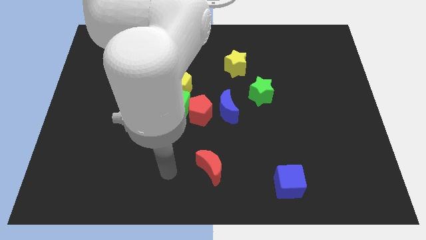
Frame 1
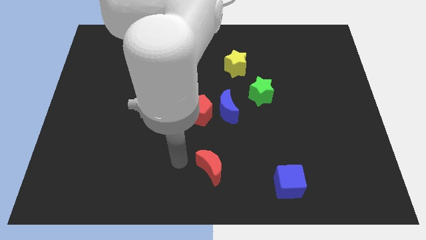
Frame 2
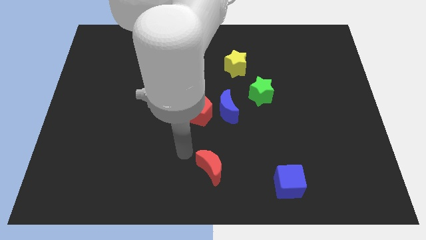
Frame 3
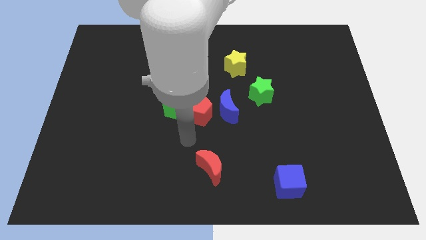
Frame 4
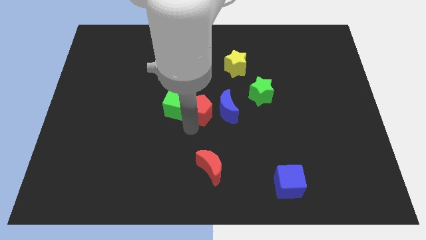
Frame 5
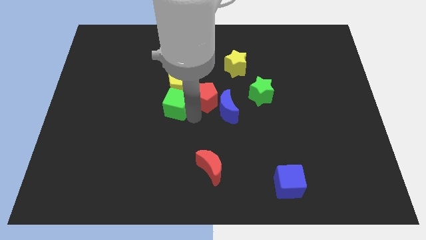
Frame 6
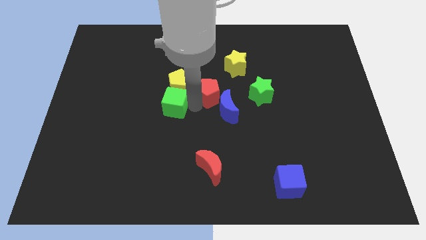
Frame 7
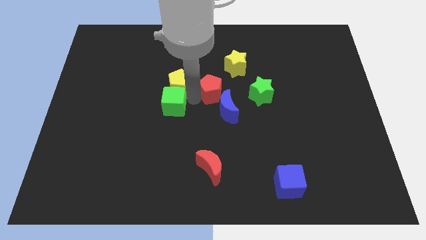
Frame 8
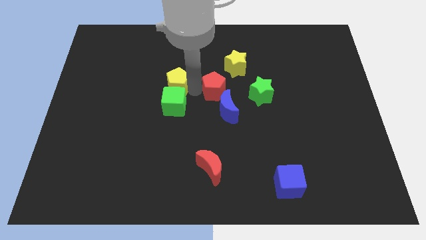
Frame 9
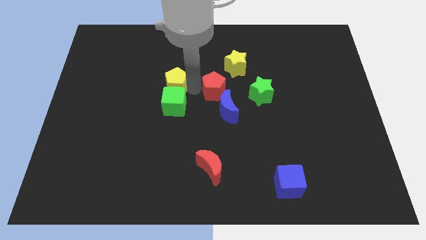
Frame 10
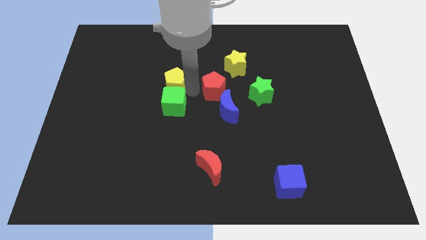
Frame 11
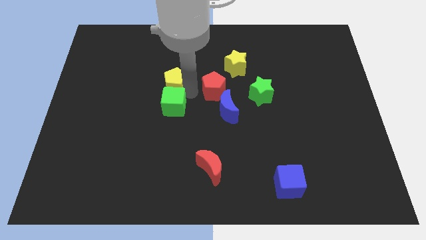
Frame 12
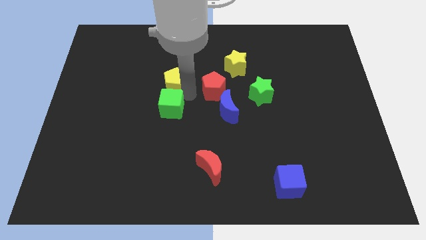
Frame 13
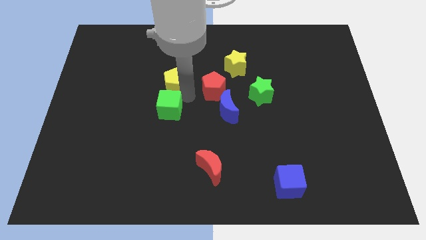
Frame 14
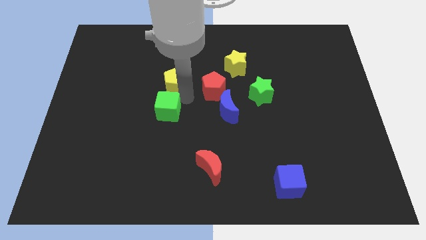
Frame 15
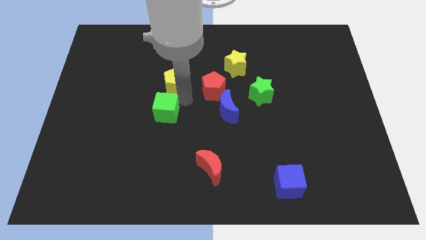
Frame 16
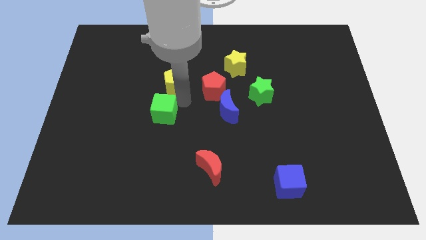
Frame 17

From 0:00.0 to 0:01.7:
move the green cube away from the red pentagon and yellow pentagon

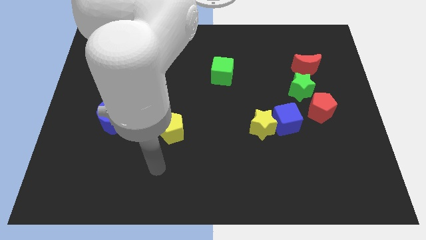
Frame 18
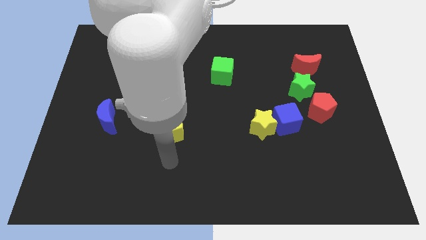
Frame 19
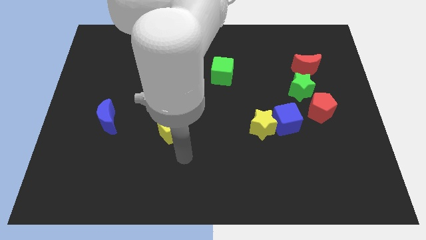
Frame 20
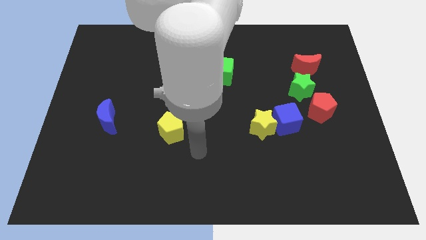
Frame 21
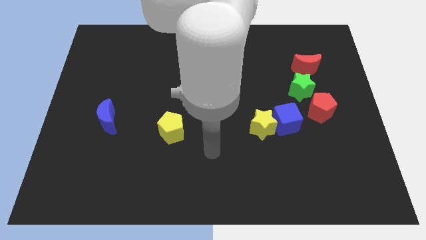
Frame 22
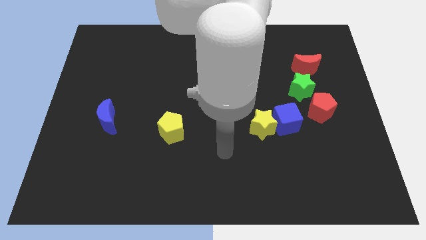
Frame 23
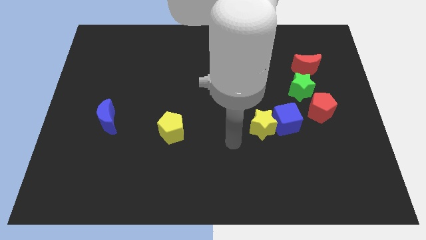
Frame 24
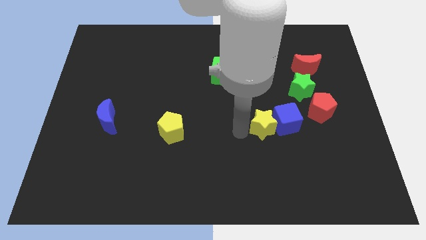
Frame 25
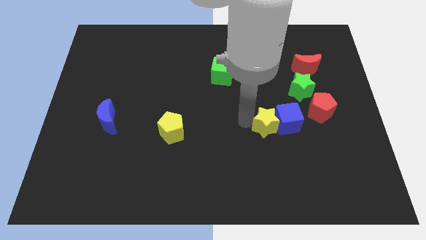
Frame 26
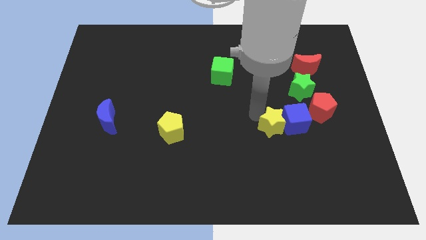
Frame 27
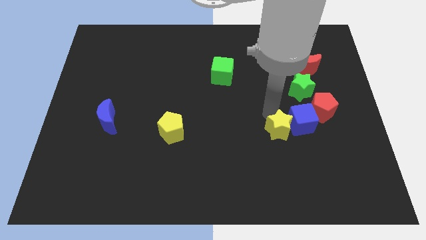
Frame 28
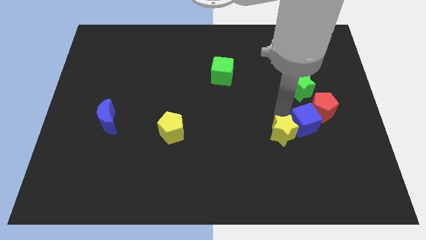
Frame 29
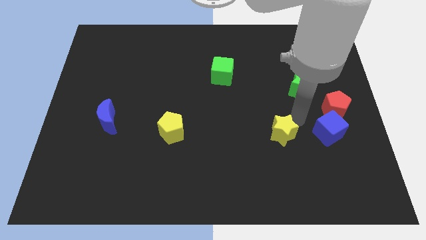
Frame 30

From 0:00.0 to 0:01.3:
move the yellow star away from the blue cube

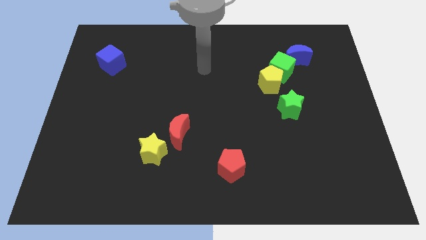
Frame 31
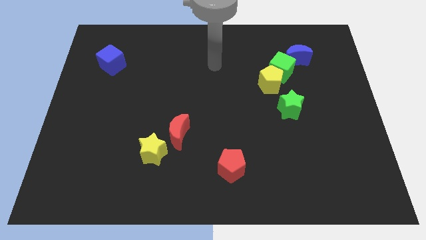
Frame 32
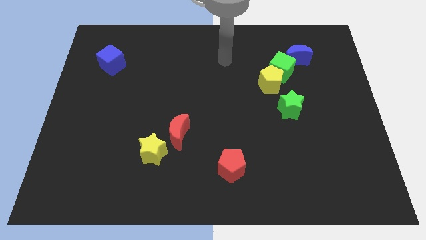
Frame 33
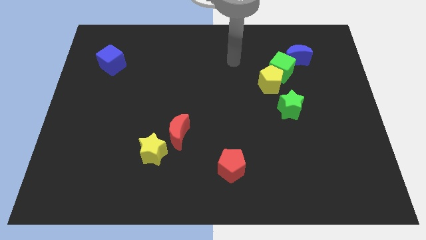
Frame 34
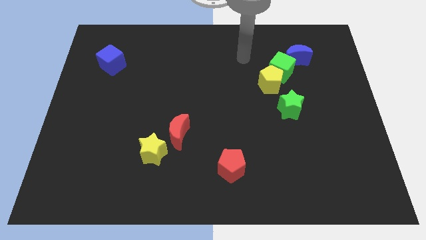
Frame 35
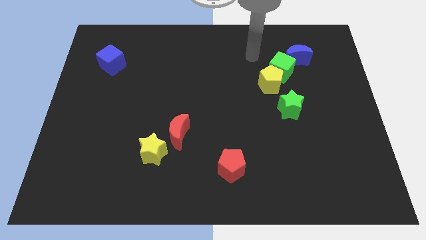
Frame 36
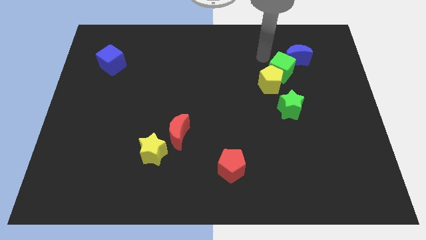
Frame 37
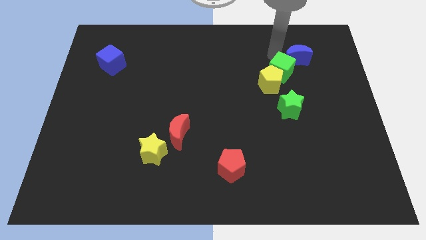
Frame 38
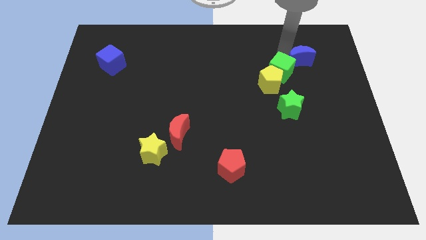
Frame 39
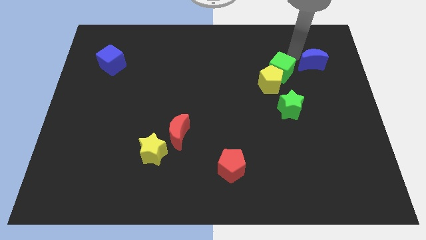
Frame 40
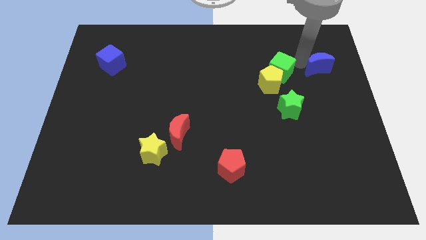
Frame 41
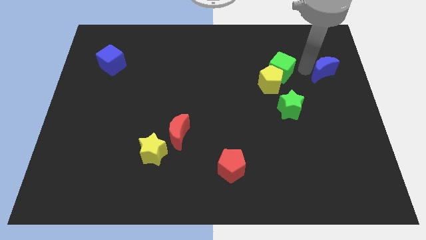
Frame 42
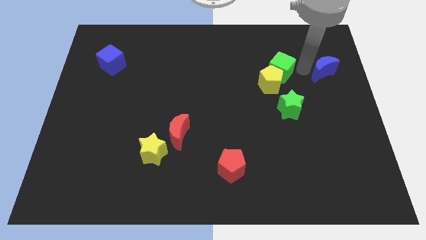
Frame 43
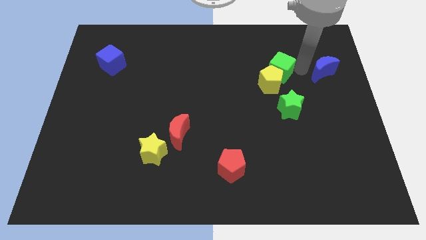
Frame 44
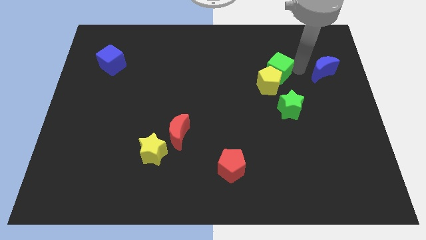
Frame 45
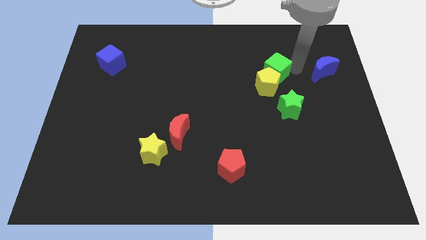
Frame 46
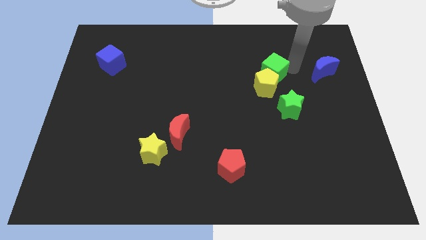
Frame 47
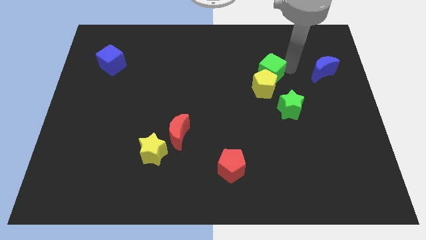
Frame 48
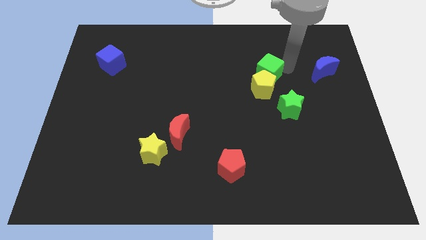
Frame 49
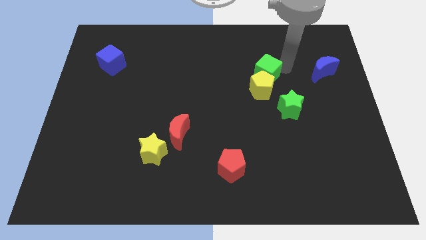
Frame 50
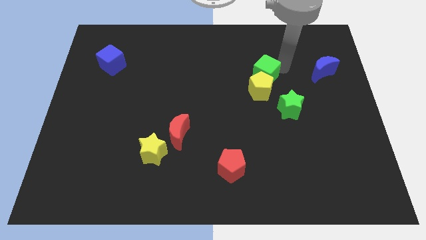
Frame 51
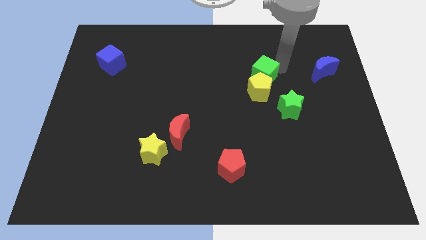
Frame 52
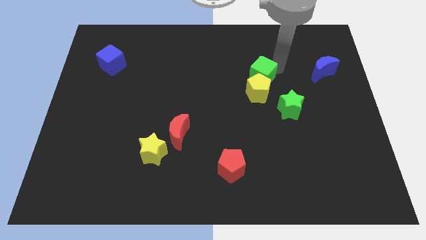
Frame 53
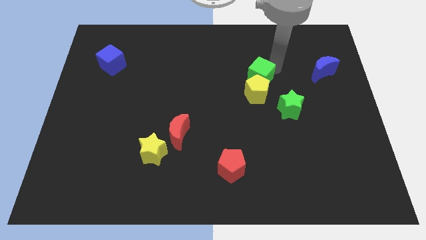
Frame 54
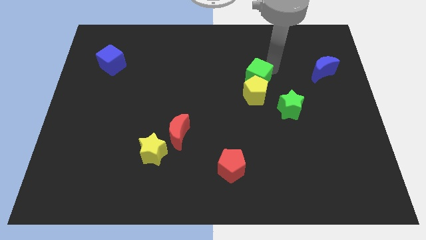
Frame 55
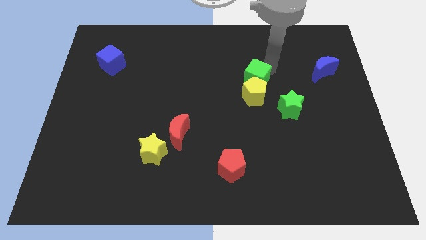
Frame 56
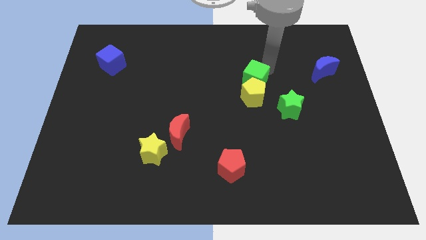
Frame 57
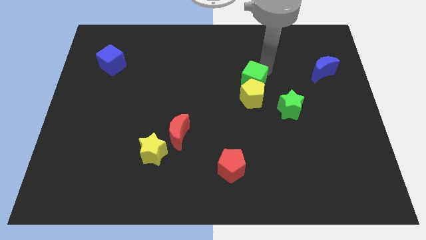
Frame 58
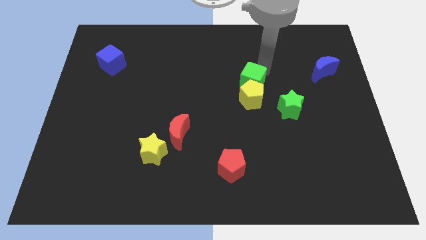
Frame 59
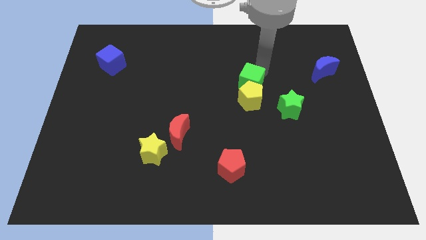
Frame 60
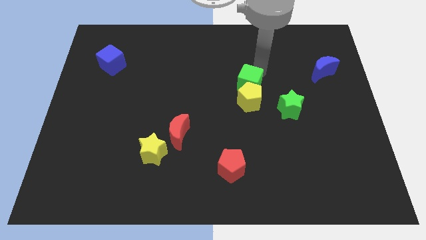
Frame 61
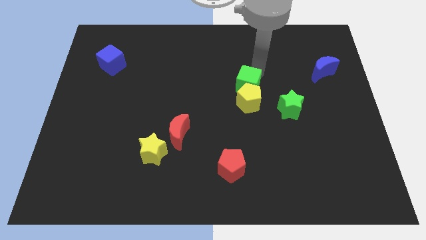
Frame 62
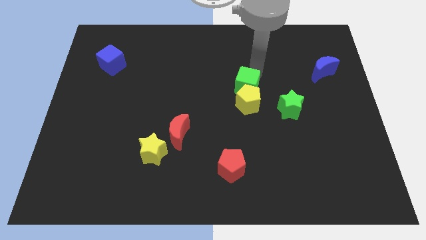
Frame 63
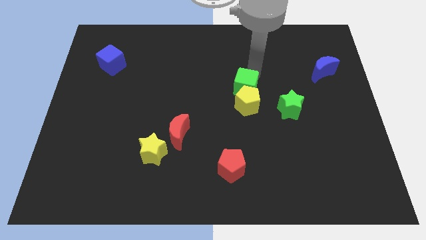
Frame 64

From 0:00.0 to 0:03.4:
pull the green cube apart from the yellow pentagon and blue moon

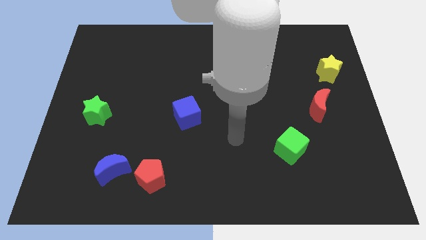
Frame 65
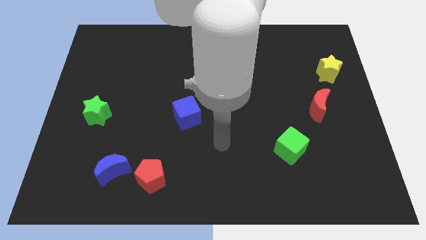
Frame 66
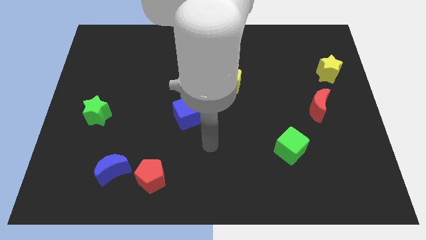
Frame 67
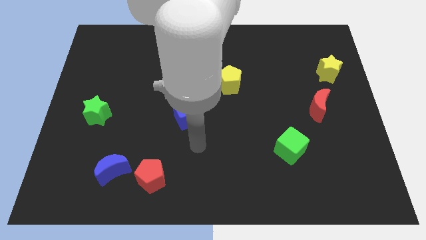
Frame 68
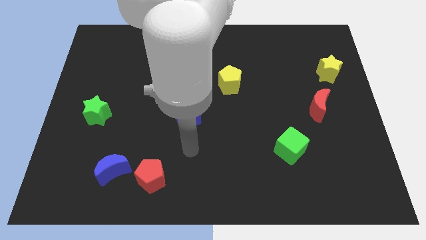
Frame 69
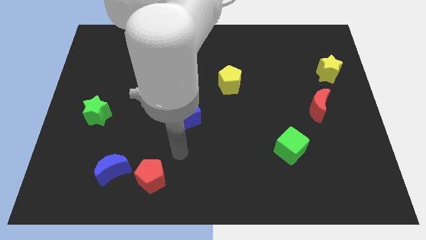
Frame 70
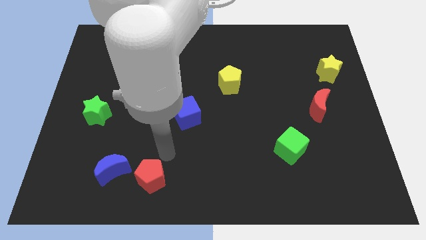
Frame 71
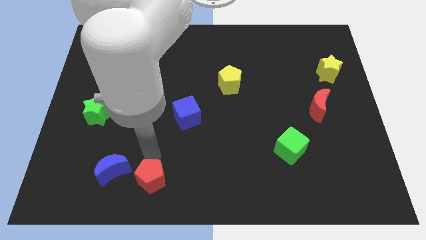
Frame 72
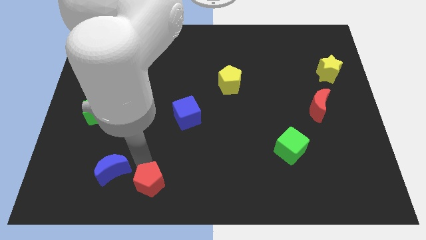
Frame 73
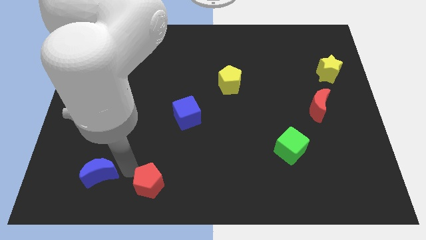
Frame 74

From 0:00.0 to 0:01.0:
move the red pentagon away from the blue moon

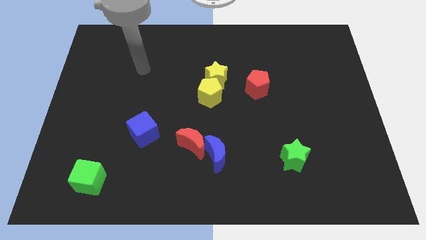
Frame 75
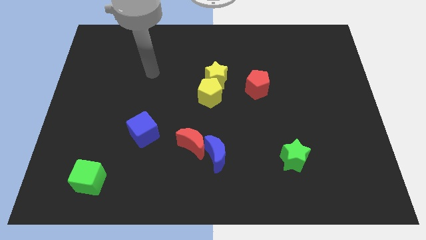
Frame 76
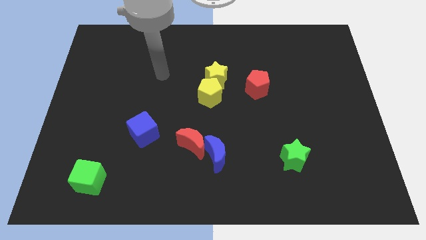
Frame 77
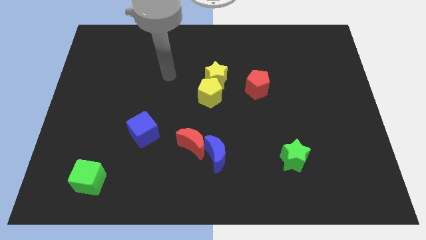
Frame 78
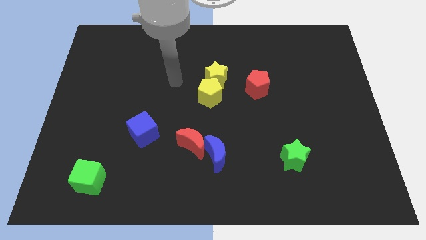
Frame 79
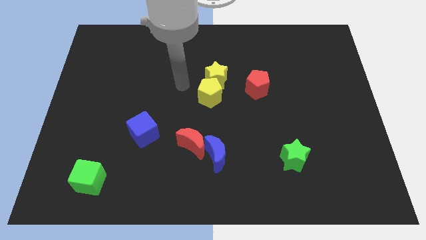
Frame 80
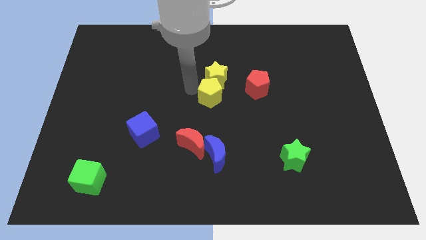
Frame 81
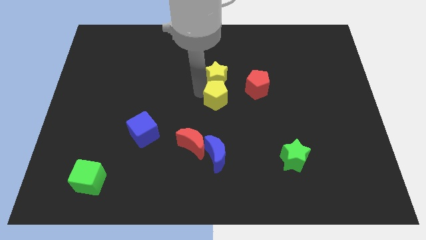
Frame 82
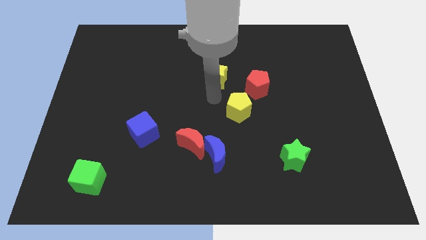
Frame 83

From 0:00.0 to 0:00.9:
pull the yellow star apart from the yellow pentagon

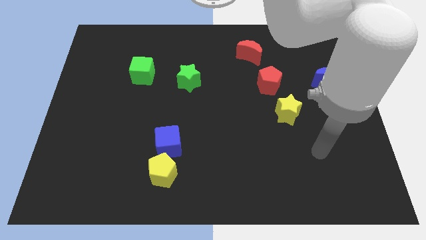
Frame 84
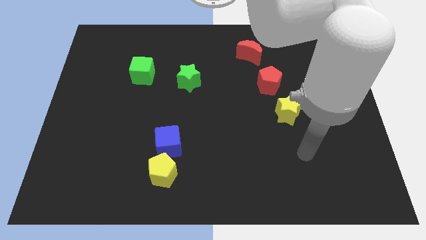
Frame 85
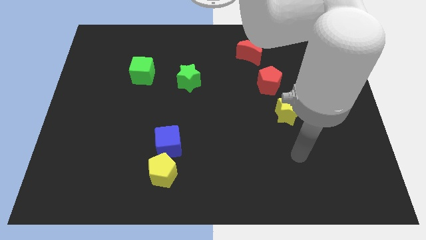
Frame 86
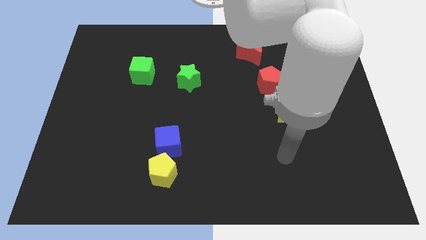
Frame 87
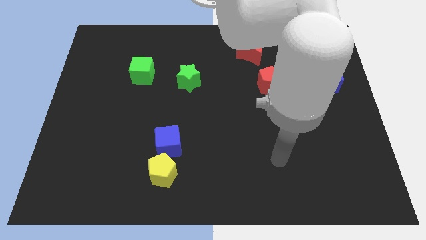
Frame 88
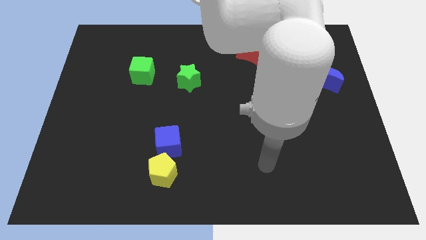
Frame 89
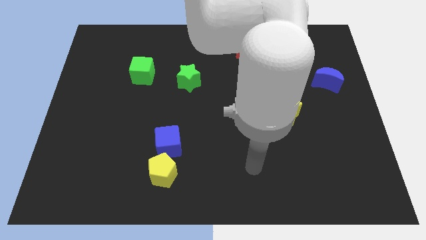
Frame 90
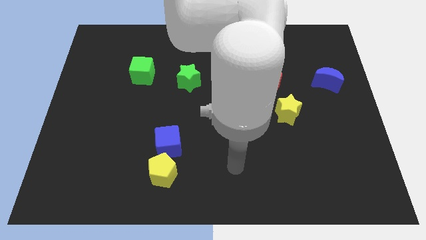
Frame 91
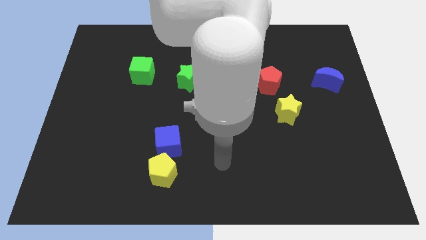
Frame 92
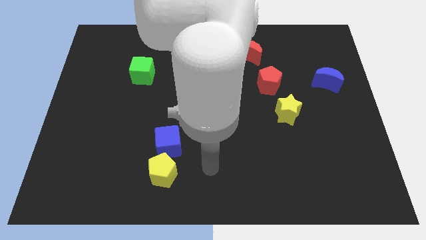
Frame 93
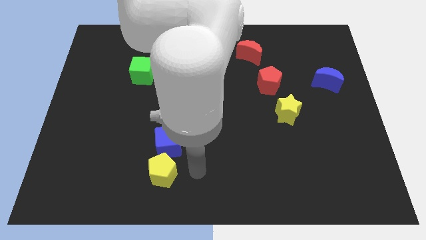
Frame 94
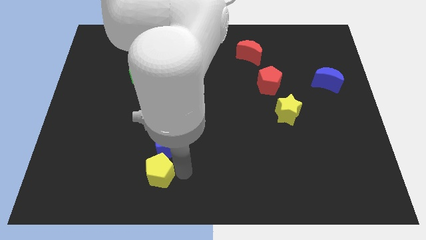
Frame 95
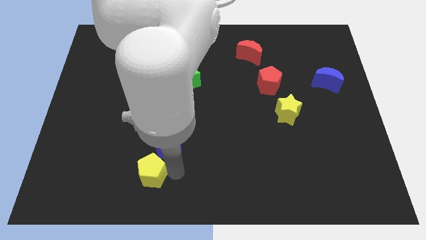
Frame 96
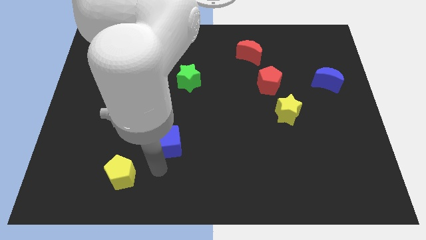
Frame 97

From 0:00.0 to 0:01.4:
pull the blue cube apart from the yellow pentagon
